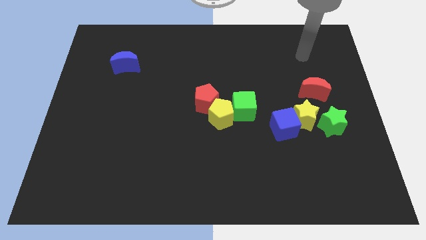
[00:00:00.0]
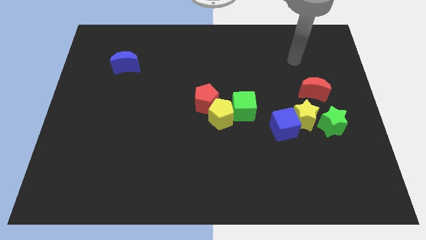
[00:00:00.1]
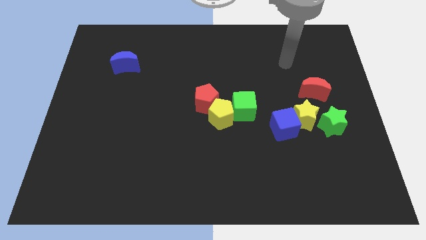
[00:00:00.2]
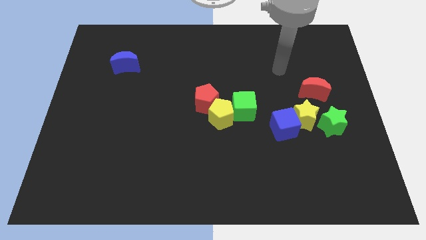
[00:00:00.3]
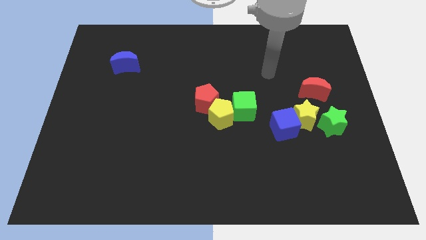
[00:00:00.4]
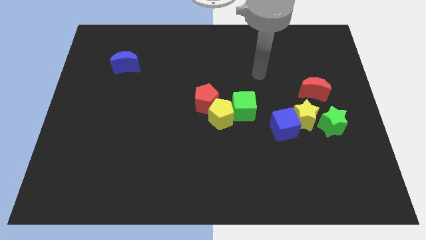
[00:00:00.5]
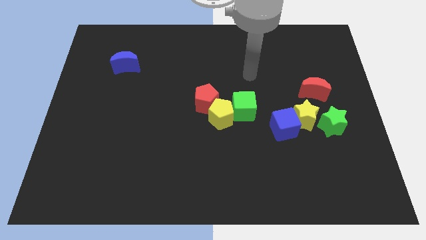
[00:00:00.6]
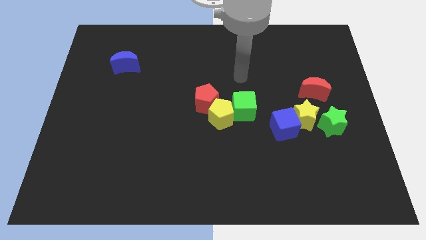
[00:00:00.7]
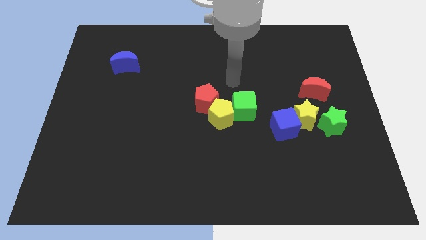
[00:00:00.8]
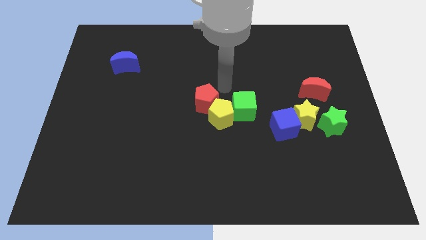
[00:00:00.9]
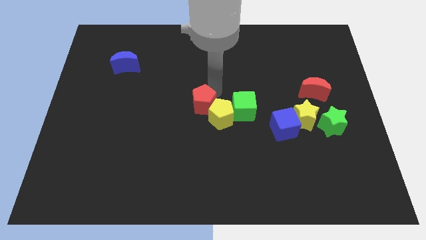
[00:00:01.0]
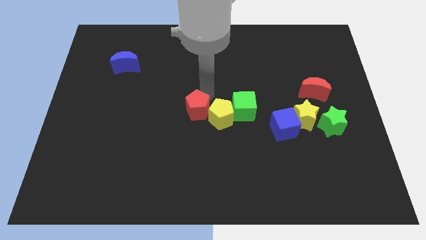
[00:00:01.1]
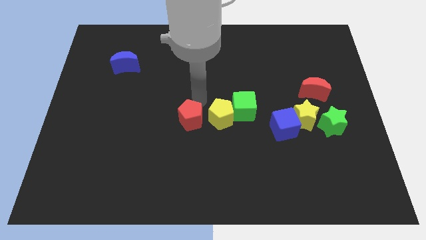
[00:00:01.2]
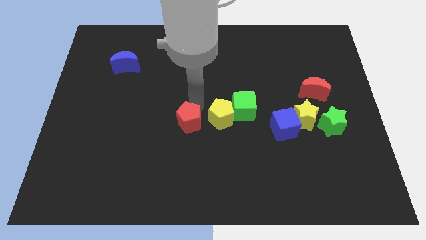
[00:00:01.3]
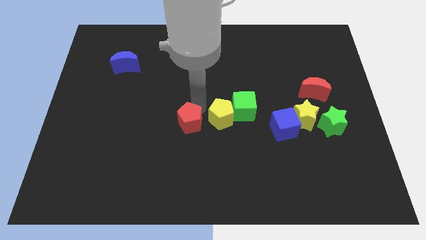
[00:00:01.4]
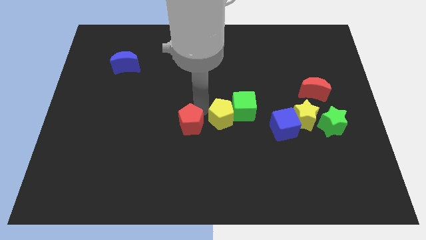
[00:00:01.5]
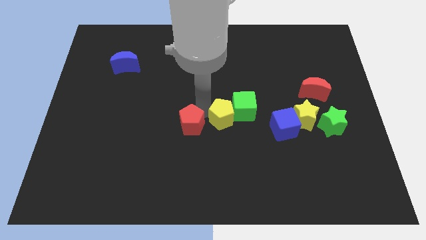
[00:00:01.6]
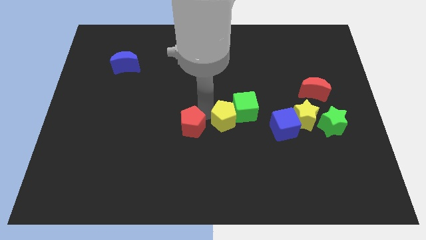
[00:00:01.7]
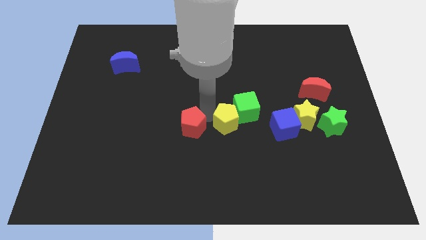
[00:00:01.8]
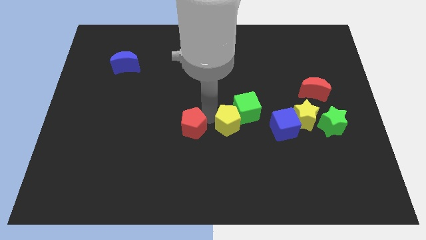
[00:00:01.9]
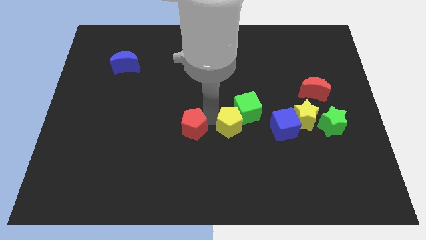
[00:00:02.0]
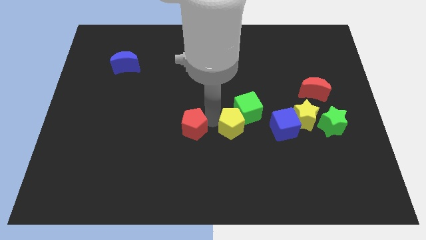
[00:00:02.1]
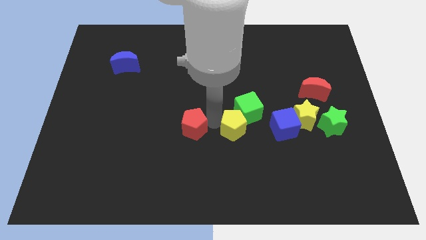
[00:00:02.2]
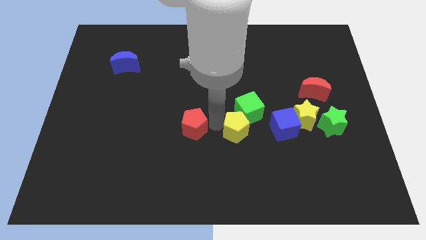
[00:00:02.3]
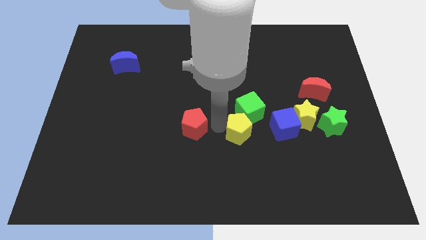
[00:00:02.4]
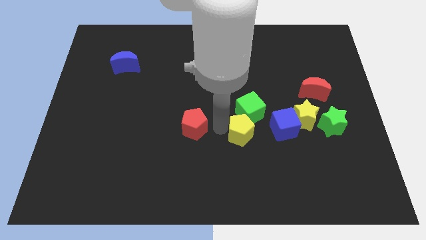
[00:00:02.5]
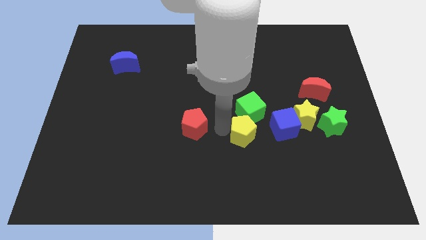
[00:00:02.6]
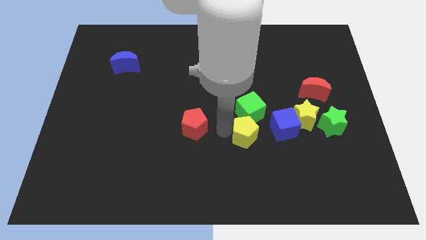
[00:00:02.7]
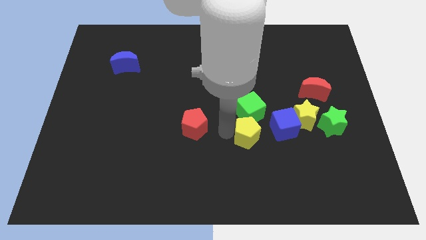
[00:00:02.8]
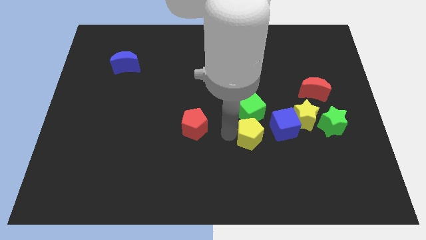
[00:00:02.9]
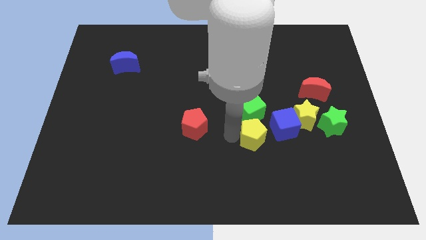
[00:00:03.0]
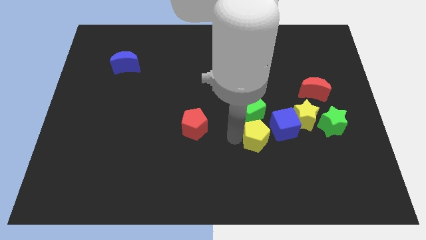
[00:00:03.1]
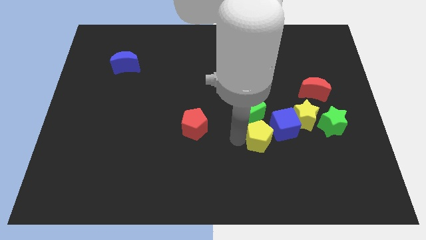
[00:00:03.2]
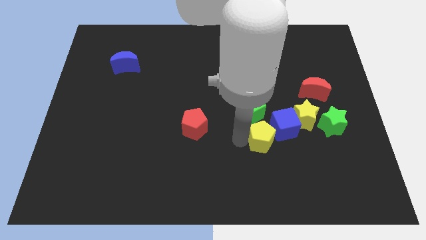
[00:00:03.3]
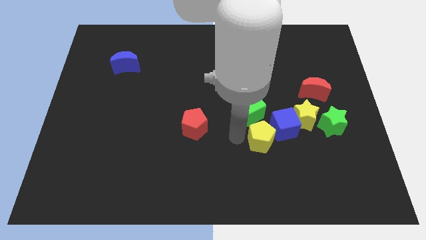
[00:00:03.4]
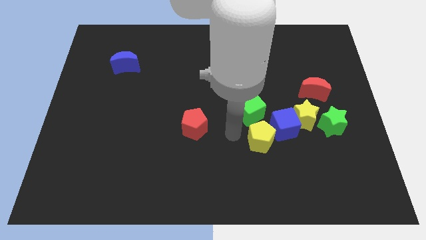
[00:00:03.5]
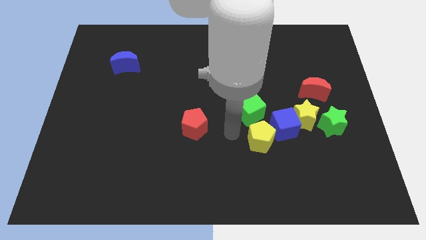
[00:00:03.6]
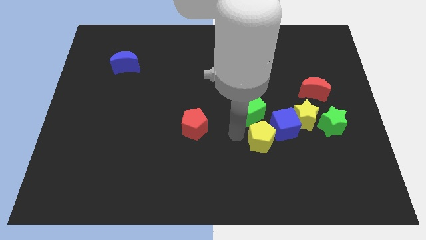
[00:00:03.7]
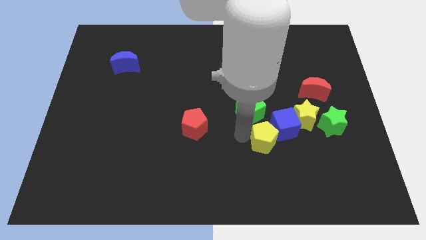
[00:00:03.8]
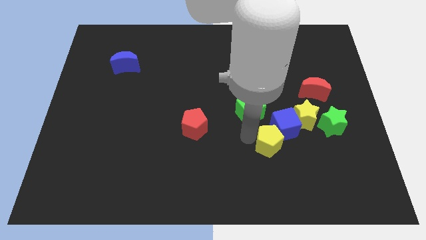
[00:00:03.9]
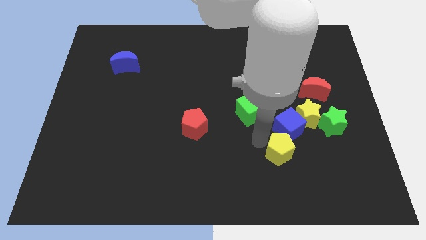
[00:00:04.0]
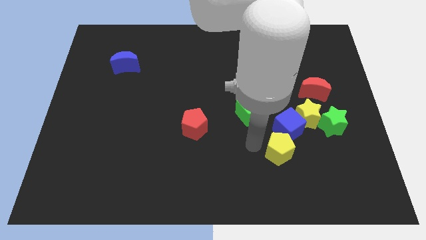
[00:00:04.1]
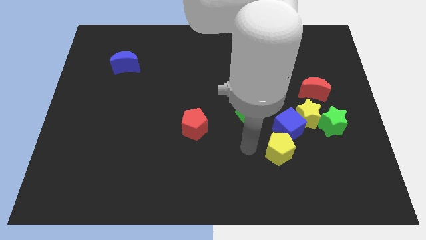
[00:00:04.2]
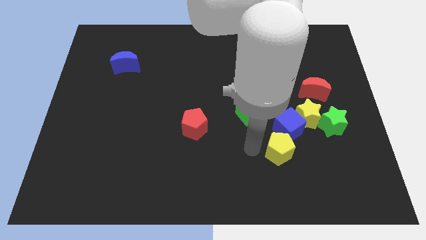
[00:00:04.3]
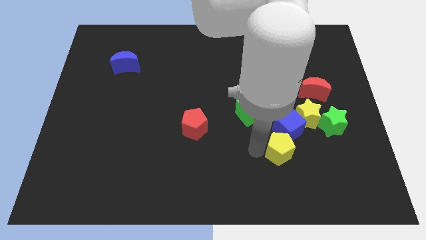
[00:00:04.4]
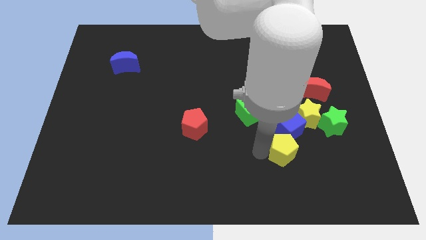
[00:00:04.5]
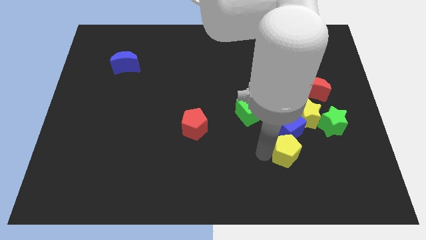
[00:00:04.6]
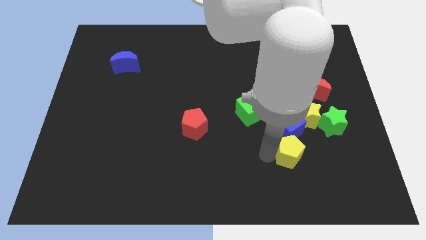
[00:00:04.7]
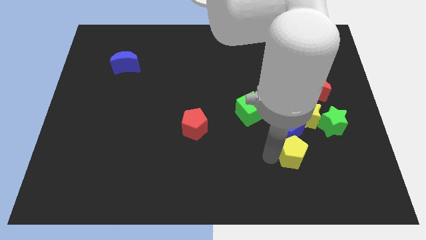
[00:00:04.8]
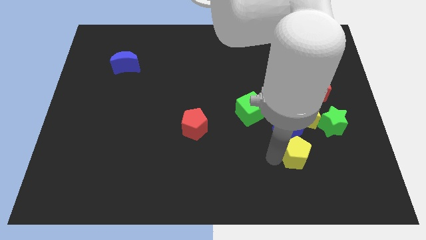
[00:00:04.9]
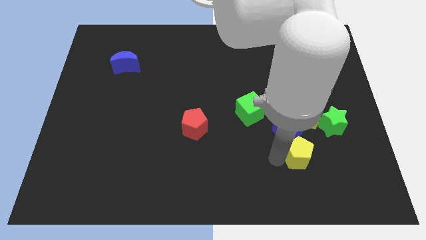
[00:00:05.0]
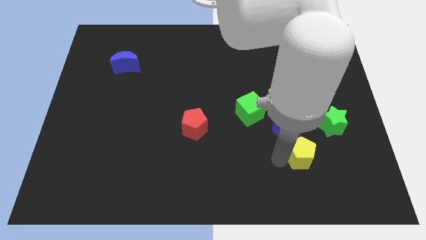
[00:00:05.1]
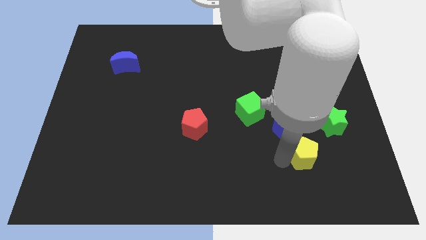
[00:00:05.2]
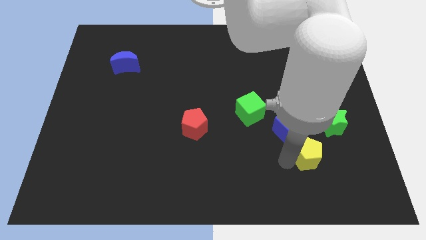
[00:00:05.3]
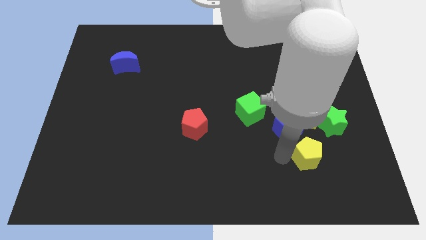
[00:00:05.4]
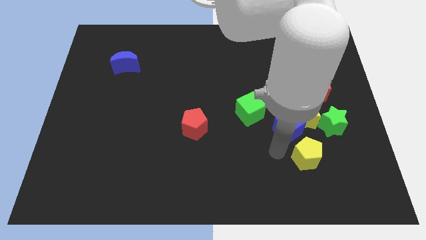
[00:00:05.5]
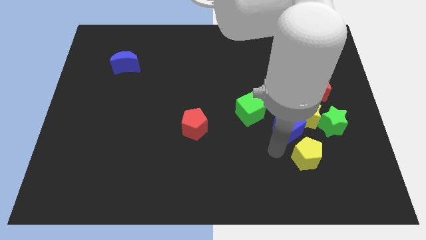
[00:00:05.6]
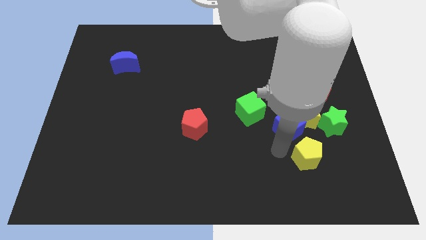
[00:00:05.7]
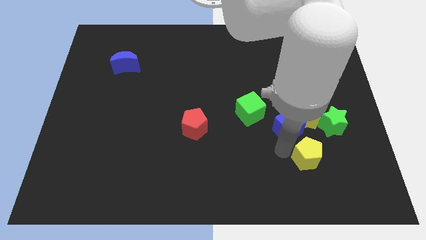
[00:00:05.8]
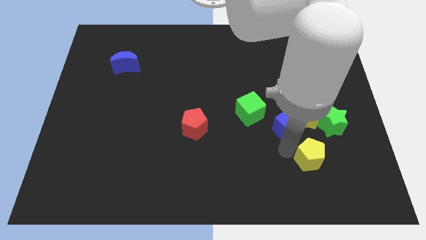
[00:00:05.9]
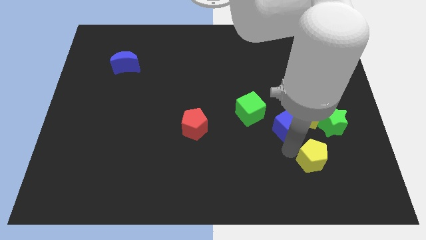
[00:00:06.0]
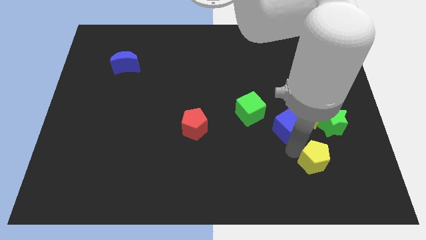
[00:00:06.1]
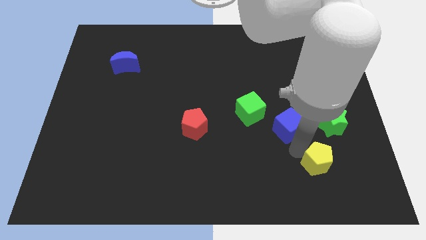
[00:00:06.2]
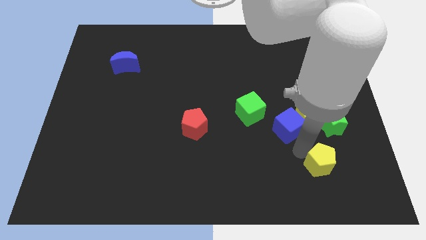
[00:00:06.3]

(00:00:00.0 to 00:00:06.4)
put the yellow pentagon to the bottom side of the green star
